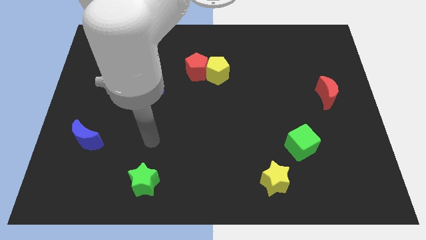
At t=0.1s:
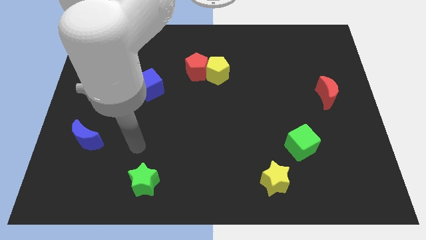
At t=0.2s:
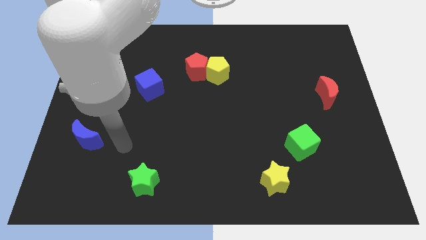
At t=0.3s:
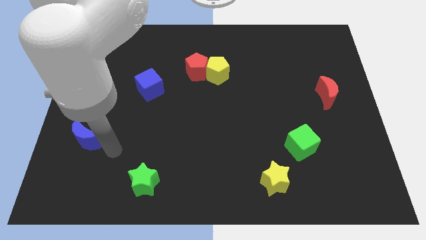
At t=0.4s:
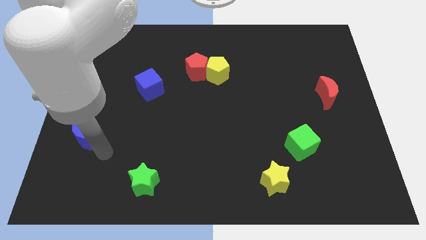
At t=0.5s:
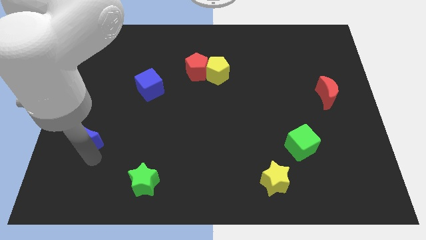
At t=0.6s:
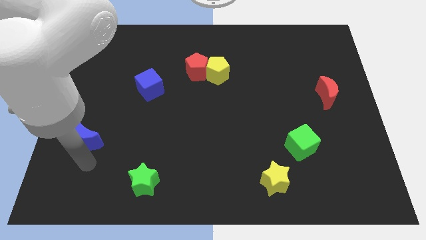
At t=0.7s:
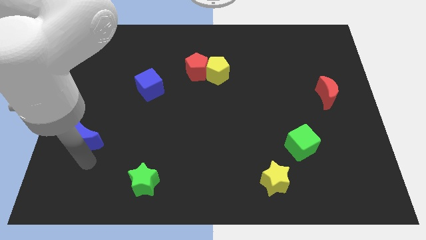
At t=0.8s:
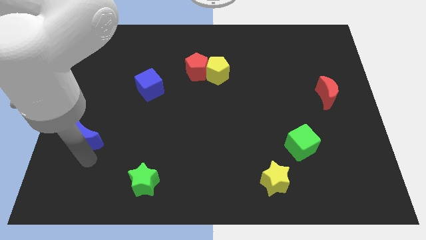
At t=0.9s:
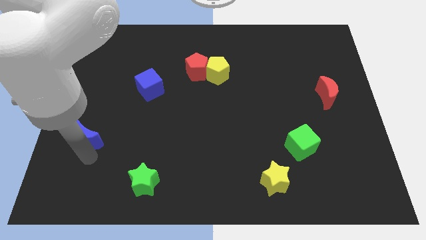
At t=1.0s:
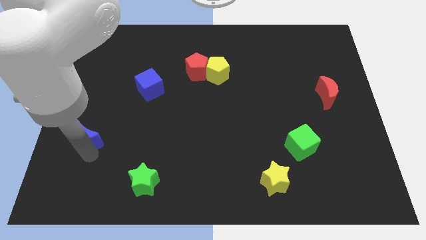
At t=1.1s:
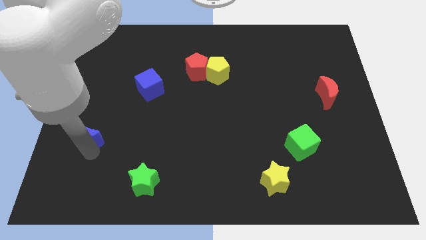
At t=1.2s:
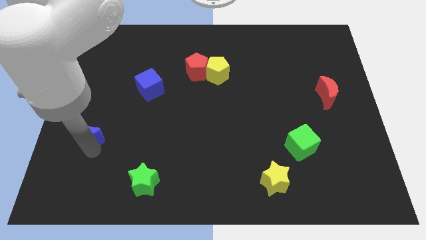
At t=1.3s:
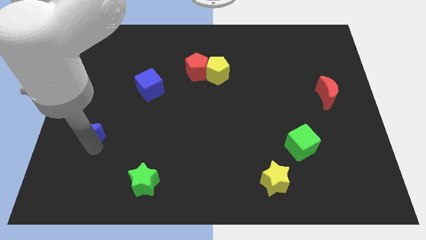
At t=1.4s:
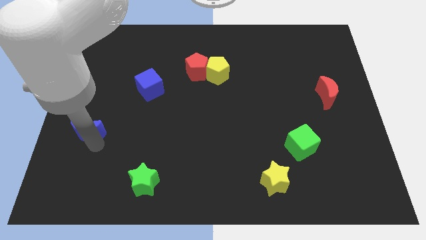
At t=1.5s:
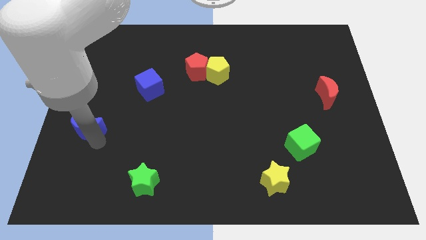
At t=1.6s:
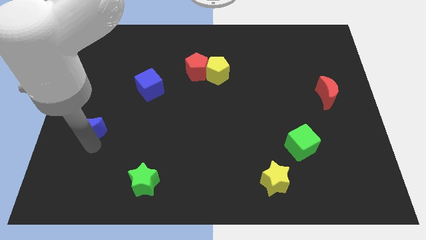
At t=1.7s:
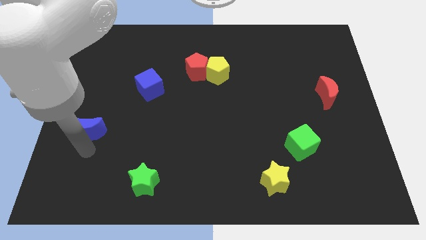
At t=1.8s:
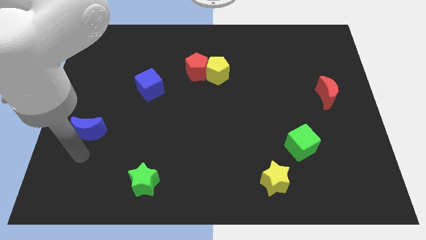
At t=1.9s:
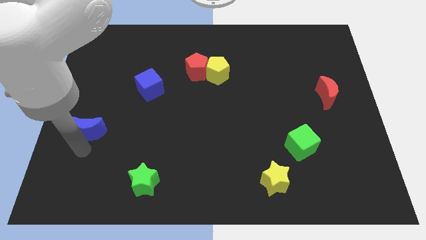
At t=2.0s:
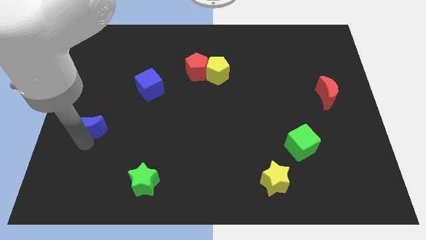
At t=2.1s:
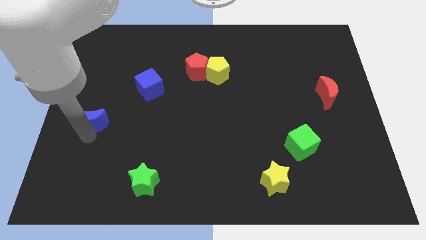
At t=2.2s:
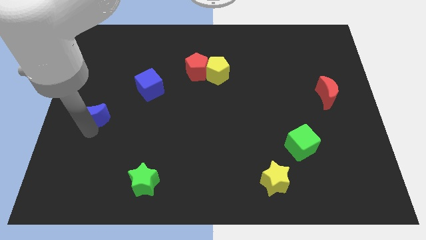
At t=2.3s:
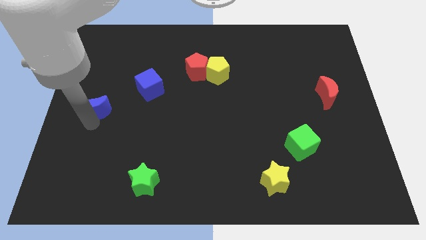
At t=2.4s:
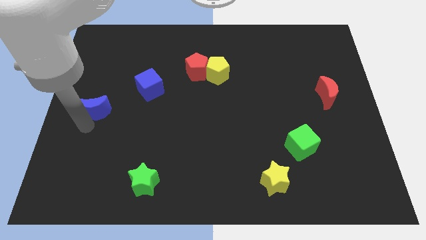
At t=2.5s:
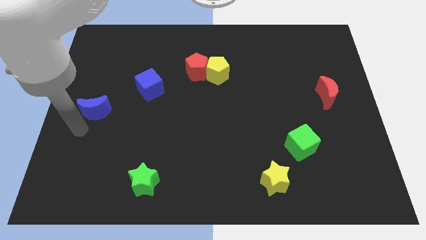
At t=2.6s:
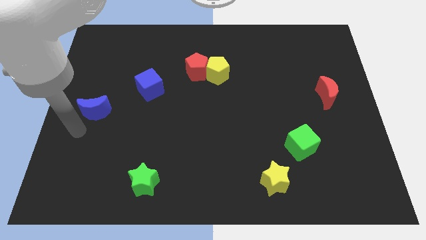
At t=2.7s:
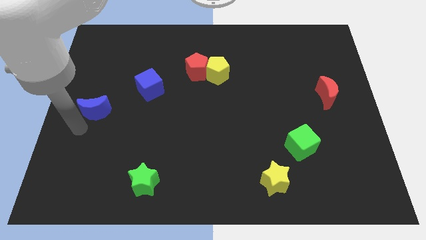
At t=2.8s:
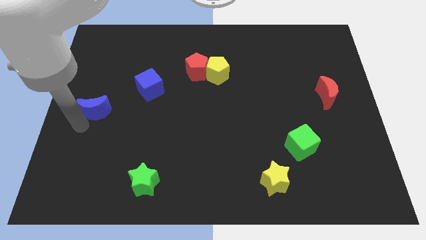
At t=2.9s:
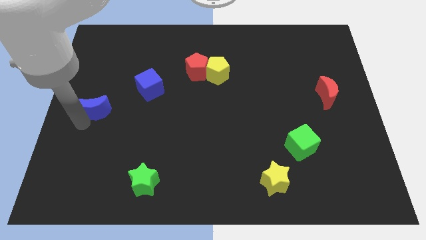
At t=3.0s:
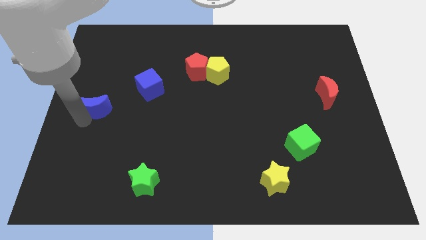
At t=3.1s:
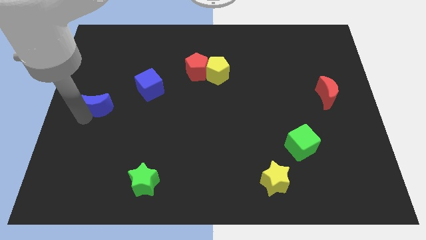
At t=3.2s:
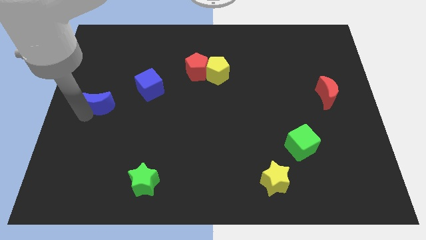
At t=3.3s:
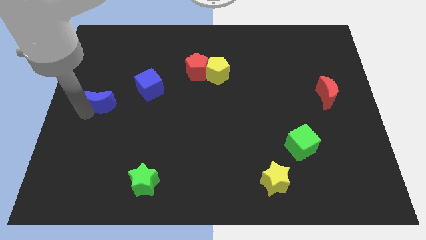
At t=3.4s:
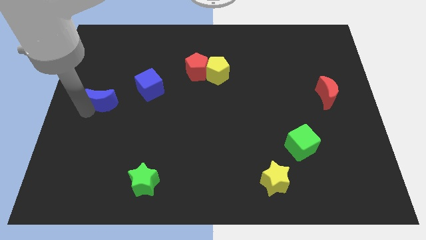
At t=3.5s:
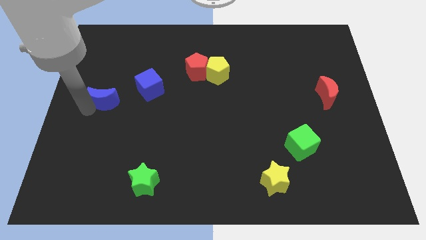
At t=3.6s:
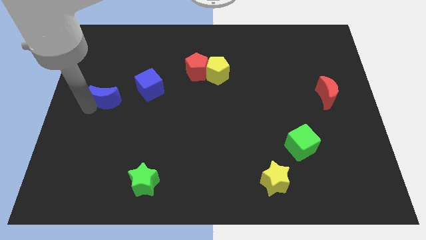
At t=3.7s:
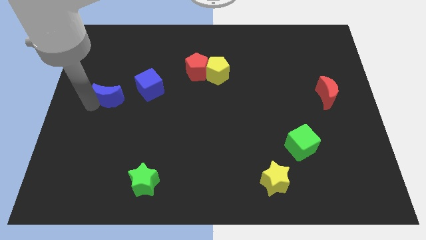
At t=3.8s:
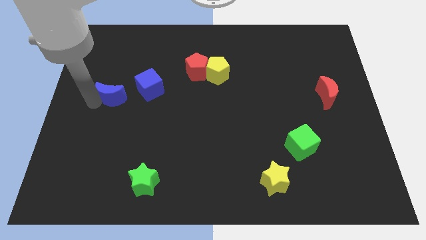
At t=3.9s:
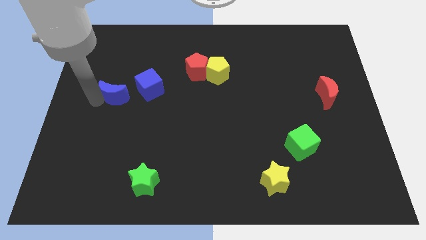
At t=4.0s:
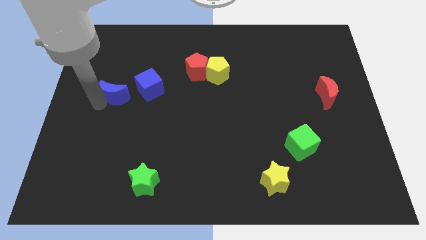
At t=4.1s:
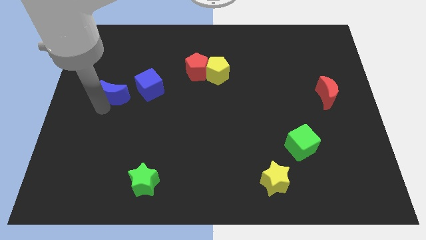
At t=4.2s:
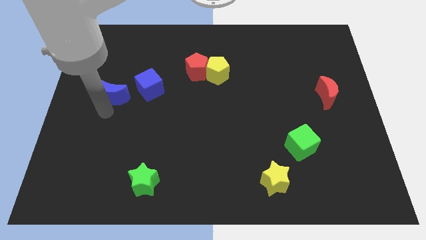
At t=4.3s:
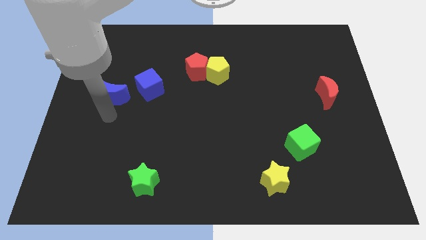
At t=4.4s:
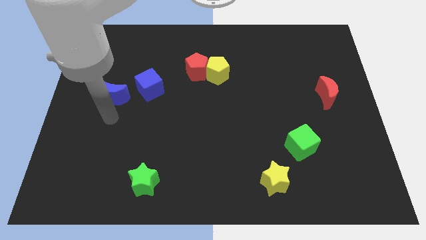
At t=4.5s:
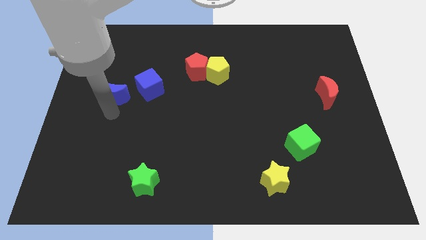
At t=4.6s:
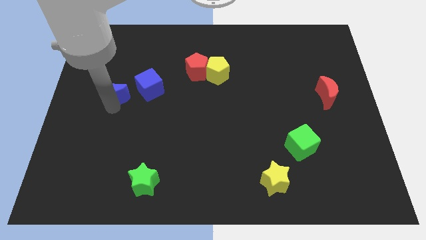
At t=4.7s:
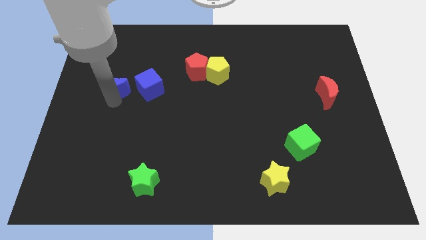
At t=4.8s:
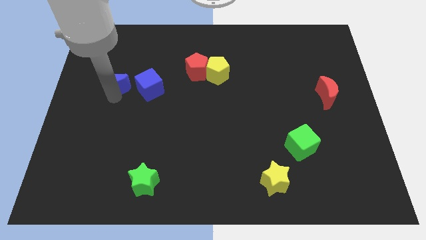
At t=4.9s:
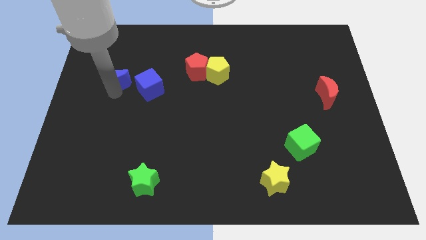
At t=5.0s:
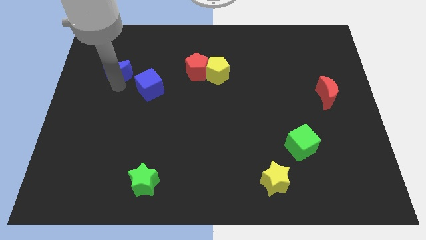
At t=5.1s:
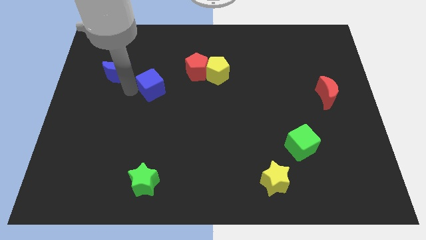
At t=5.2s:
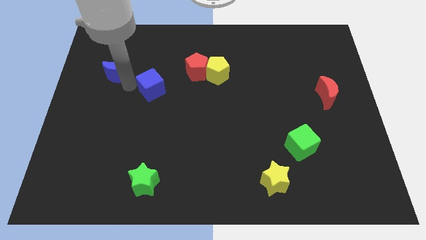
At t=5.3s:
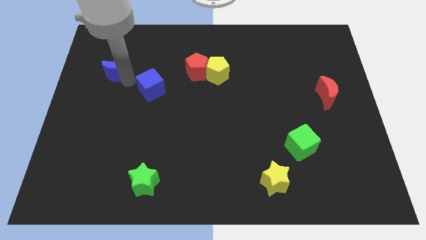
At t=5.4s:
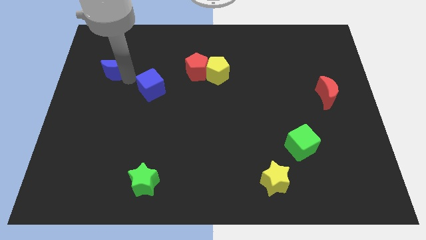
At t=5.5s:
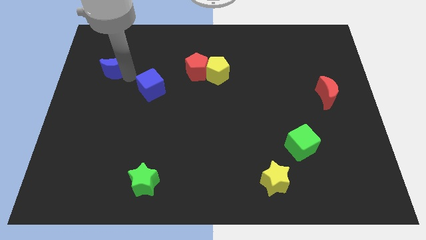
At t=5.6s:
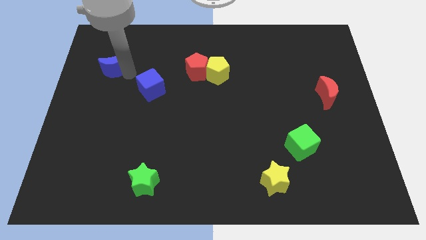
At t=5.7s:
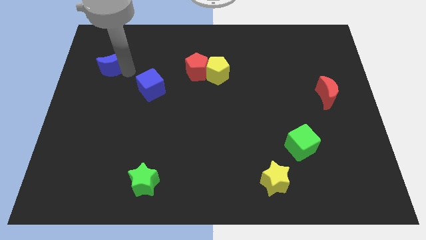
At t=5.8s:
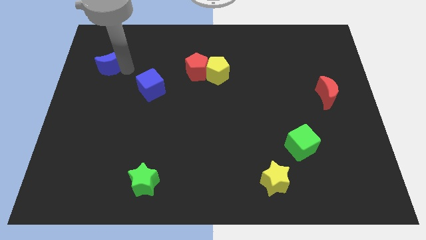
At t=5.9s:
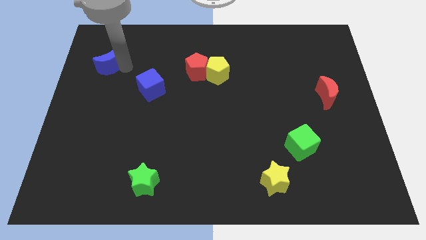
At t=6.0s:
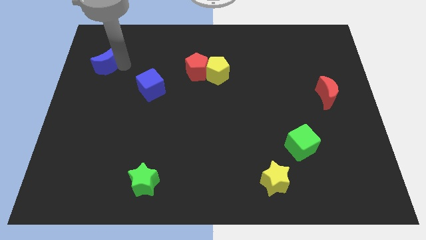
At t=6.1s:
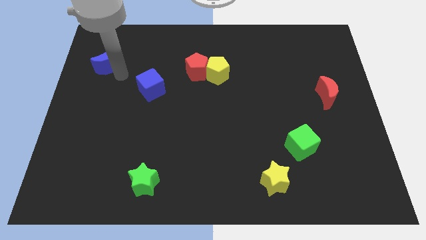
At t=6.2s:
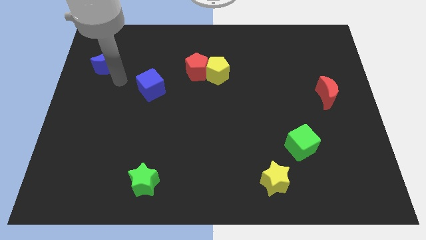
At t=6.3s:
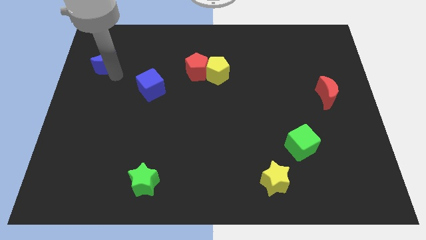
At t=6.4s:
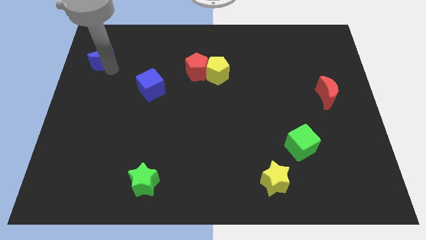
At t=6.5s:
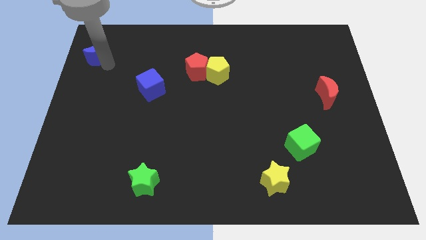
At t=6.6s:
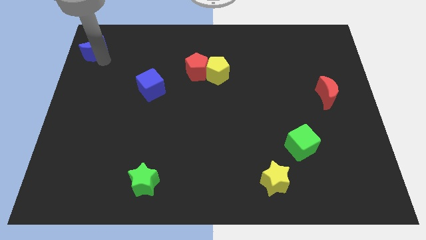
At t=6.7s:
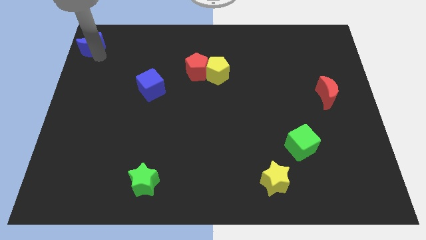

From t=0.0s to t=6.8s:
push the blue moon to the top left corner
